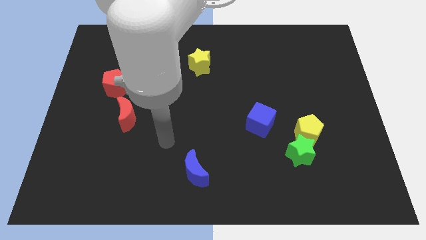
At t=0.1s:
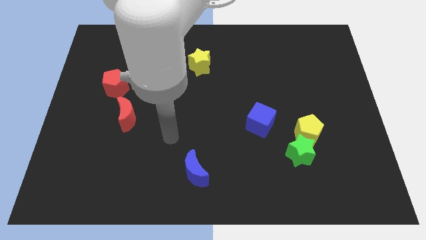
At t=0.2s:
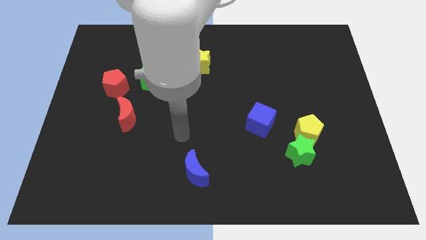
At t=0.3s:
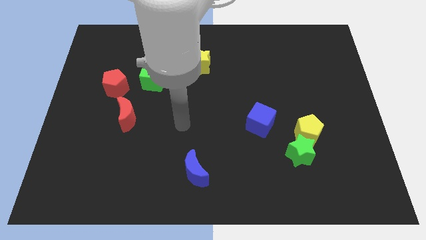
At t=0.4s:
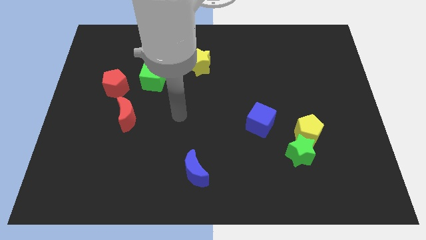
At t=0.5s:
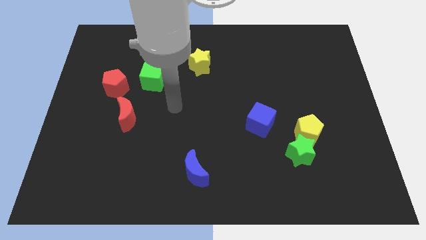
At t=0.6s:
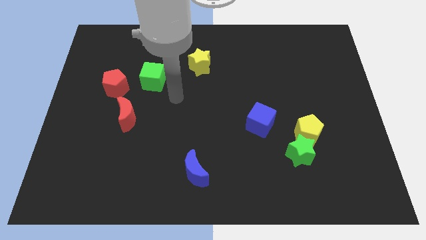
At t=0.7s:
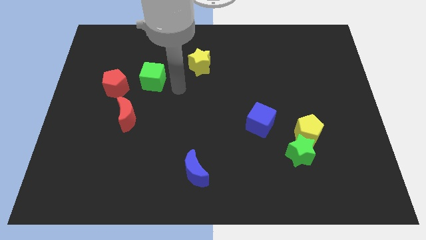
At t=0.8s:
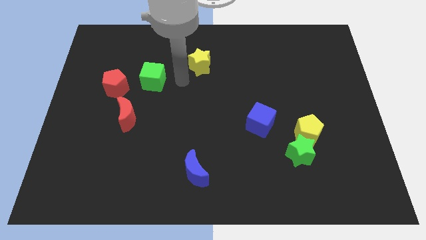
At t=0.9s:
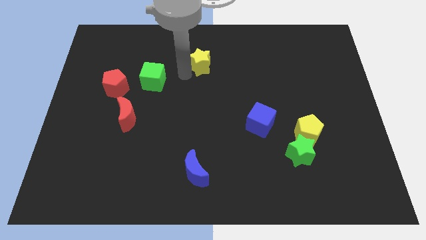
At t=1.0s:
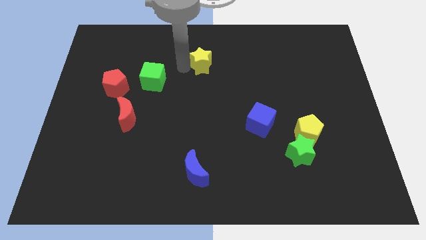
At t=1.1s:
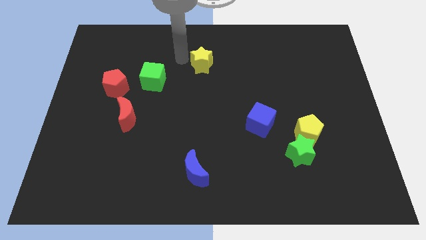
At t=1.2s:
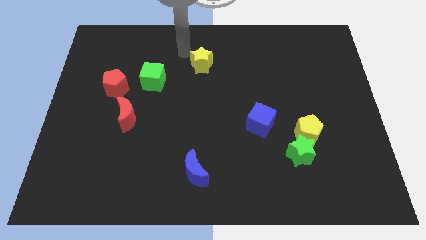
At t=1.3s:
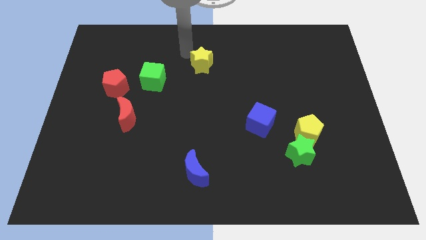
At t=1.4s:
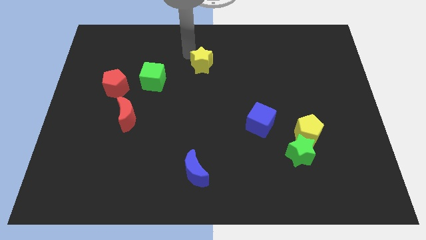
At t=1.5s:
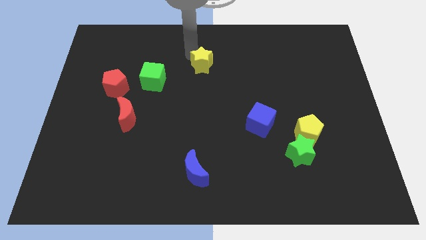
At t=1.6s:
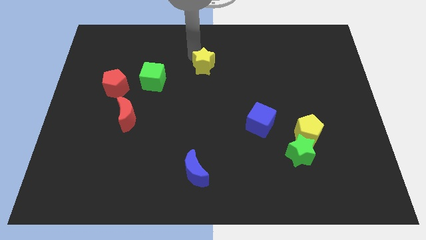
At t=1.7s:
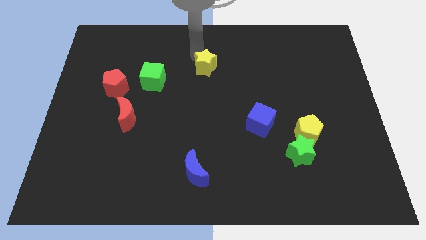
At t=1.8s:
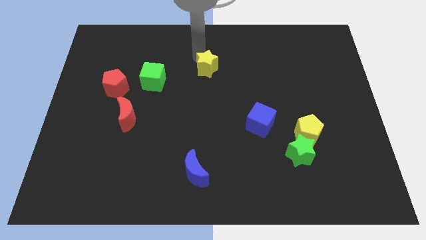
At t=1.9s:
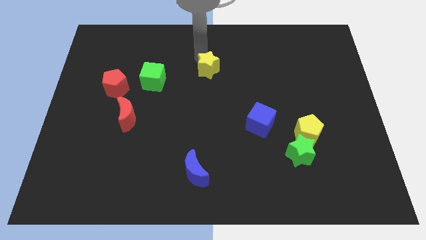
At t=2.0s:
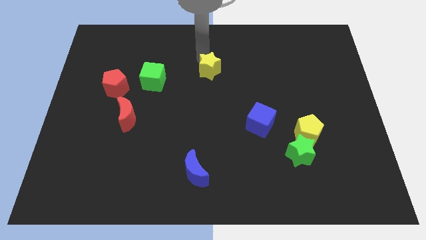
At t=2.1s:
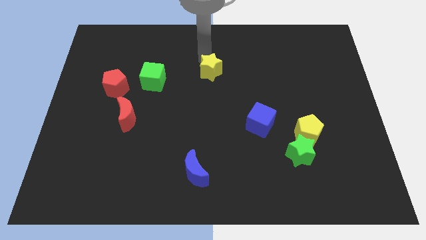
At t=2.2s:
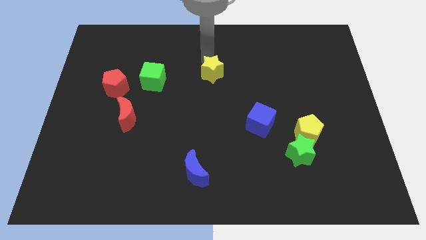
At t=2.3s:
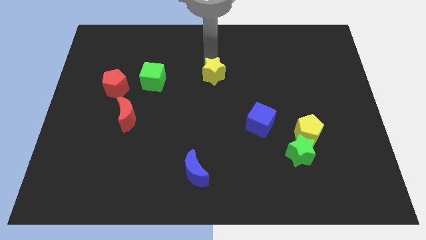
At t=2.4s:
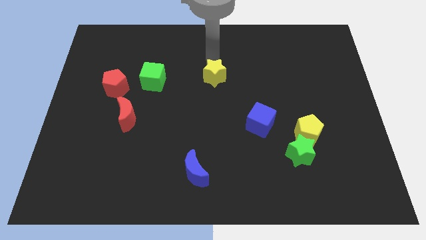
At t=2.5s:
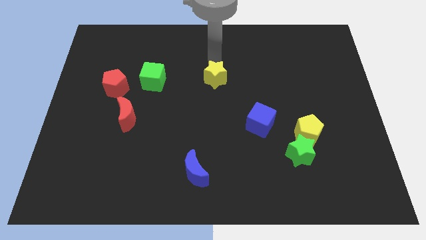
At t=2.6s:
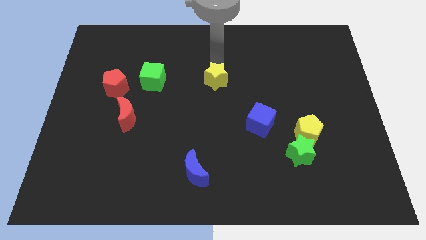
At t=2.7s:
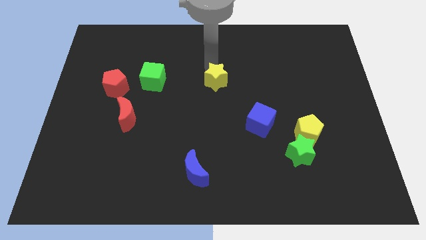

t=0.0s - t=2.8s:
move the yellow star a little bit downwards and right

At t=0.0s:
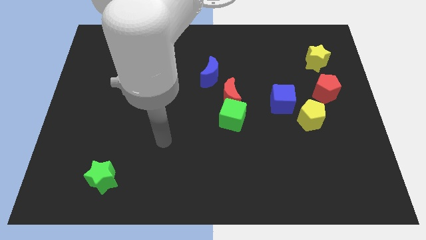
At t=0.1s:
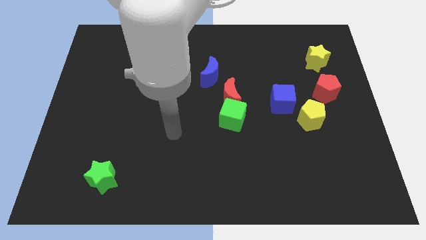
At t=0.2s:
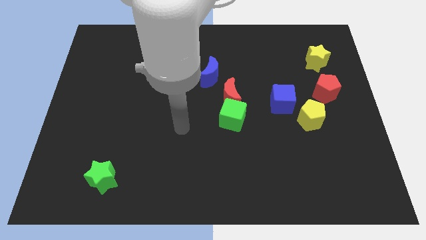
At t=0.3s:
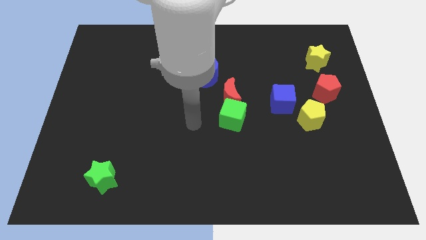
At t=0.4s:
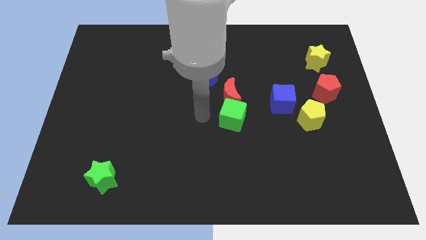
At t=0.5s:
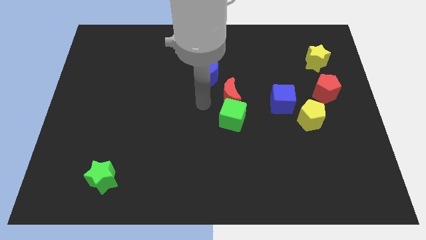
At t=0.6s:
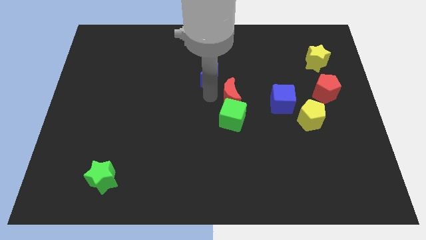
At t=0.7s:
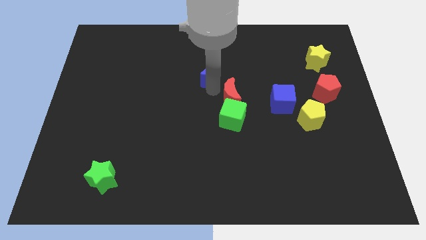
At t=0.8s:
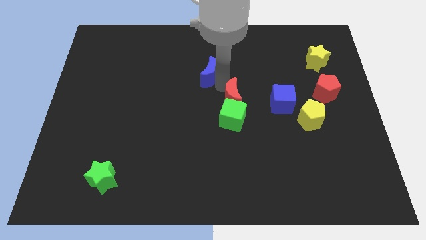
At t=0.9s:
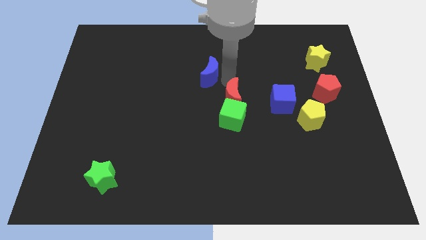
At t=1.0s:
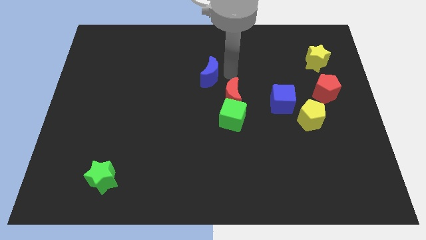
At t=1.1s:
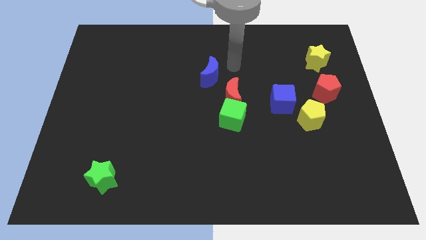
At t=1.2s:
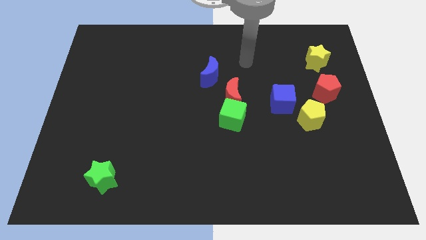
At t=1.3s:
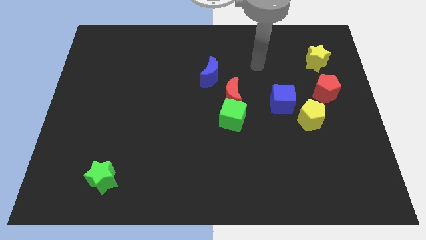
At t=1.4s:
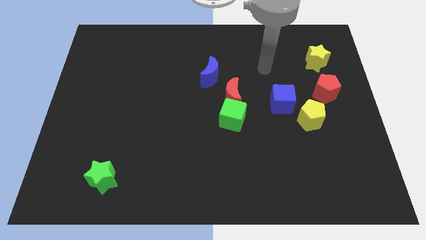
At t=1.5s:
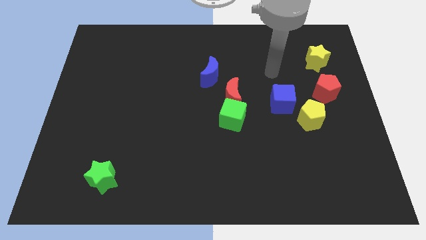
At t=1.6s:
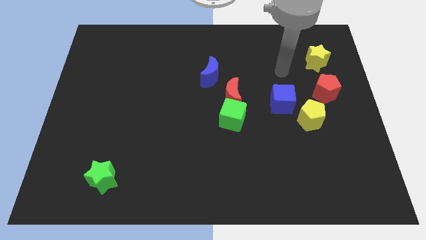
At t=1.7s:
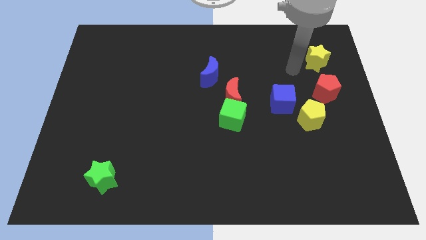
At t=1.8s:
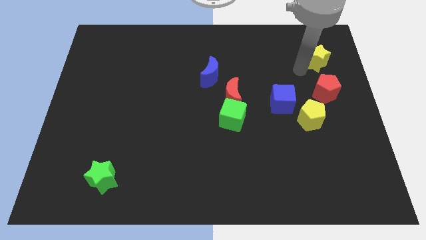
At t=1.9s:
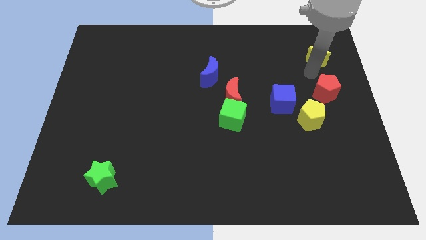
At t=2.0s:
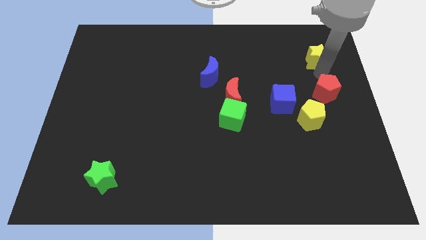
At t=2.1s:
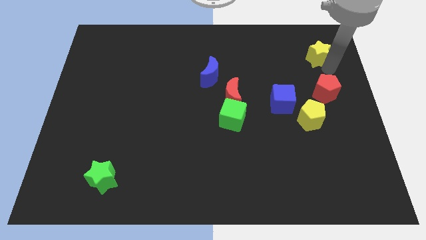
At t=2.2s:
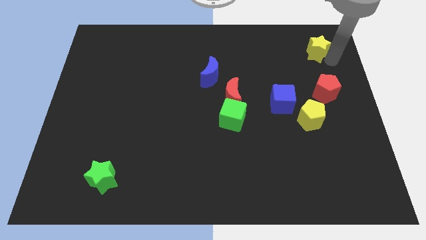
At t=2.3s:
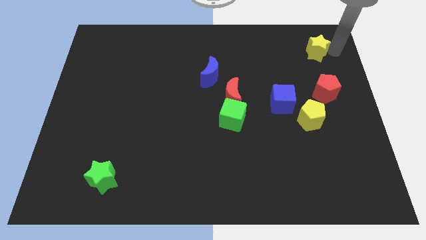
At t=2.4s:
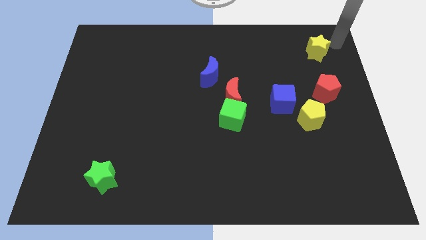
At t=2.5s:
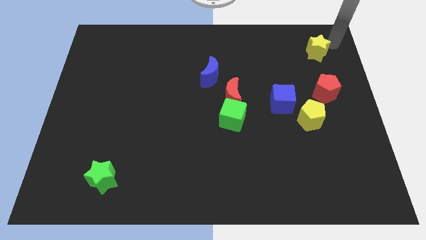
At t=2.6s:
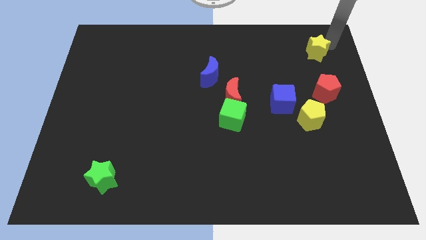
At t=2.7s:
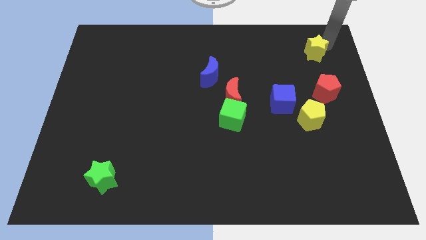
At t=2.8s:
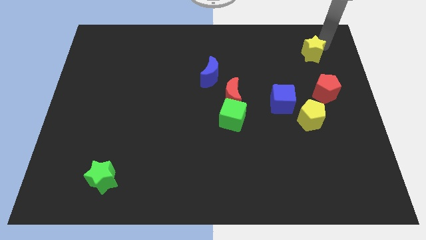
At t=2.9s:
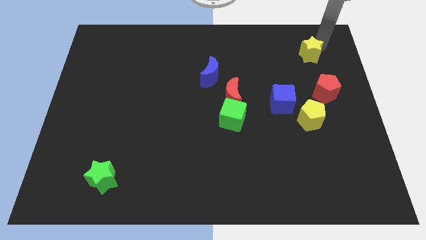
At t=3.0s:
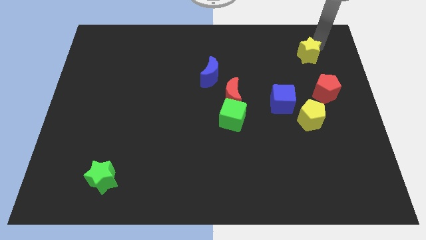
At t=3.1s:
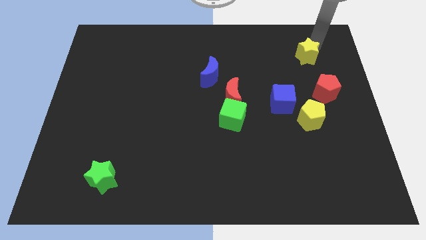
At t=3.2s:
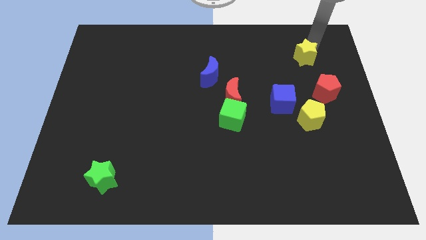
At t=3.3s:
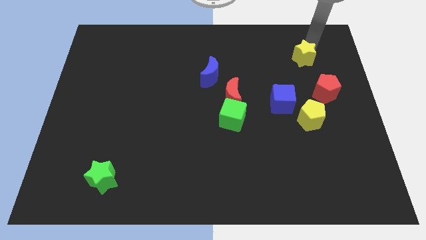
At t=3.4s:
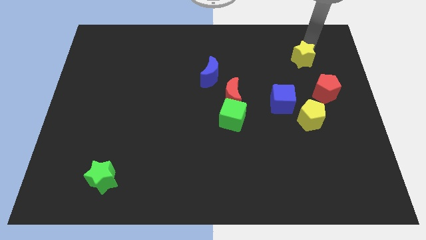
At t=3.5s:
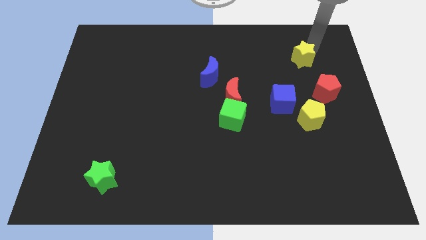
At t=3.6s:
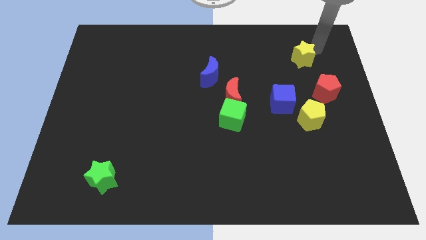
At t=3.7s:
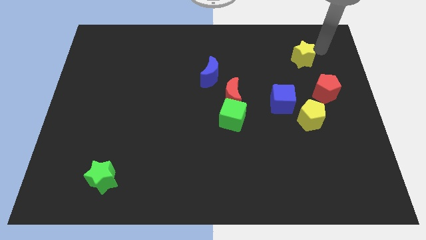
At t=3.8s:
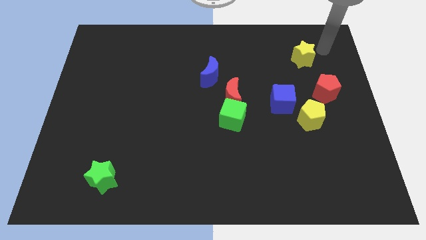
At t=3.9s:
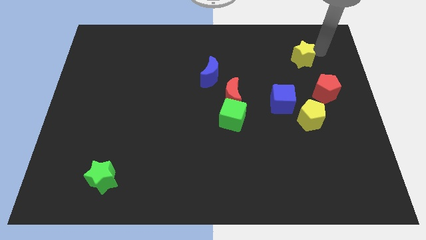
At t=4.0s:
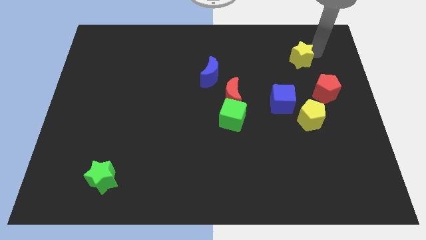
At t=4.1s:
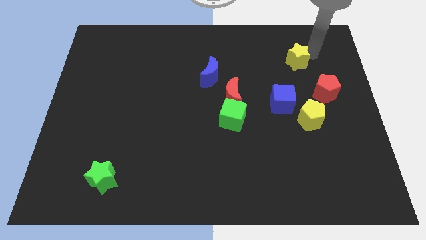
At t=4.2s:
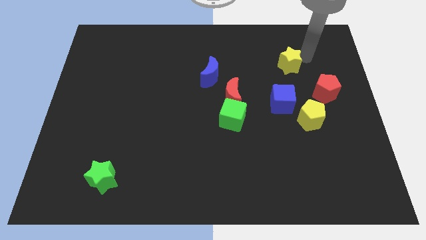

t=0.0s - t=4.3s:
push the yellow star a little bit left

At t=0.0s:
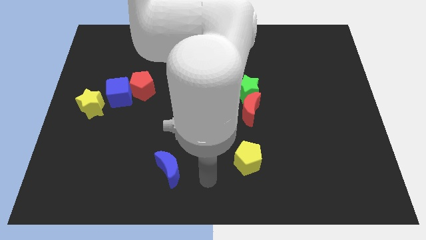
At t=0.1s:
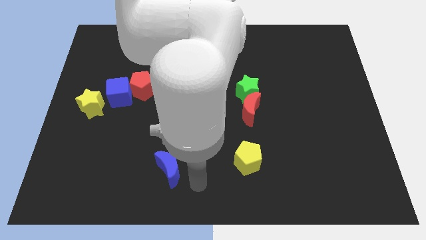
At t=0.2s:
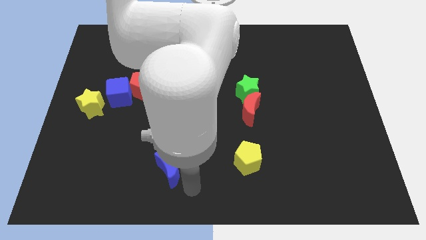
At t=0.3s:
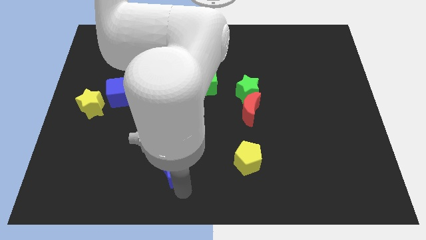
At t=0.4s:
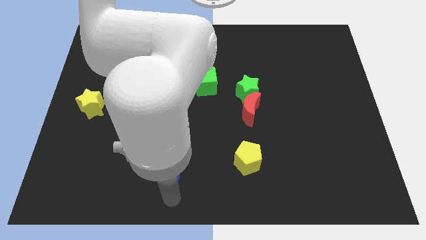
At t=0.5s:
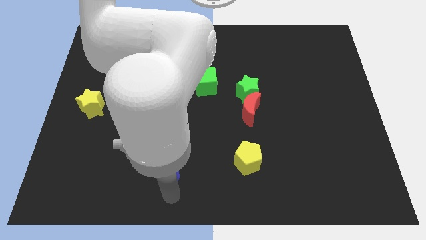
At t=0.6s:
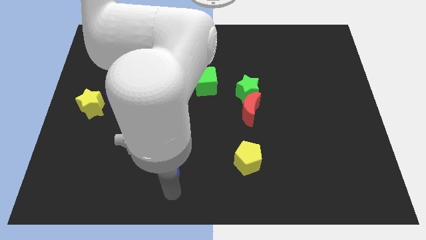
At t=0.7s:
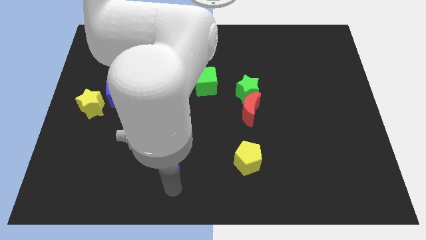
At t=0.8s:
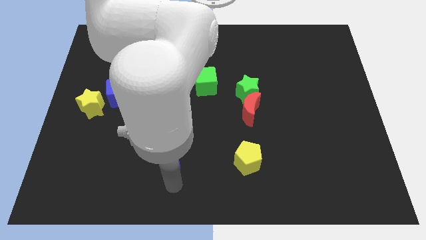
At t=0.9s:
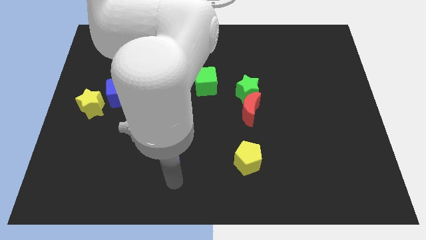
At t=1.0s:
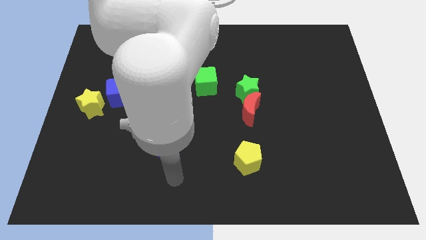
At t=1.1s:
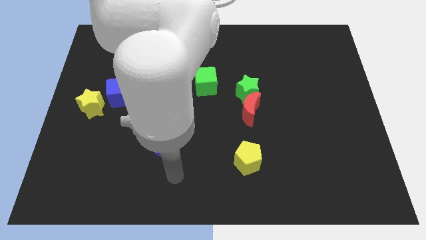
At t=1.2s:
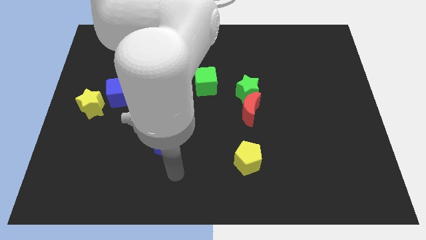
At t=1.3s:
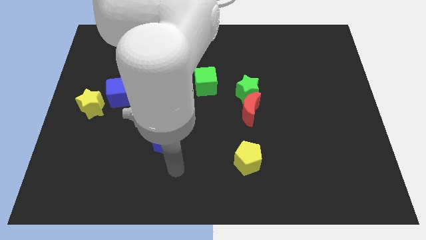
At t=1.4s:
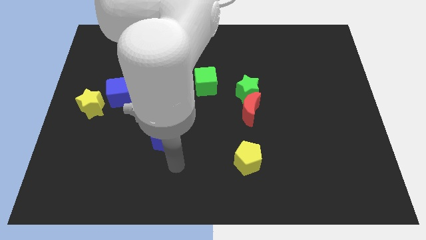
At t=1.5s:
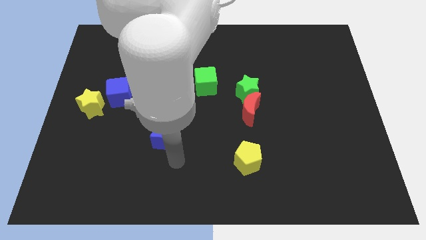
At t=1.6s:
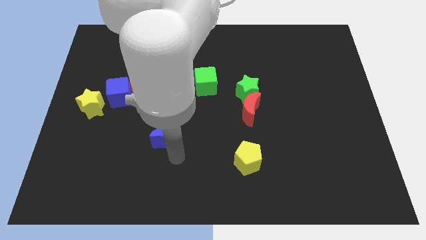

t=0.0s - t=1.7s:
slide the blue moon up a little bit
